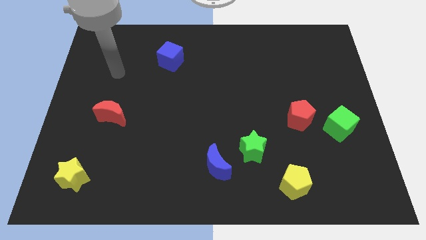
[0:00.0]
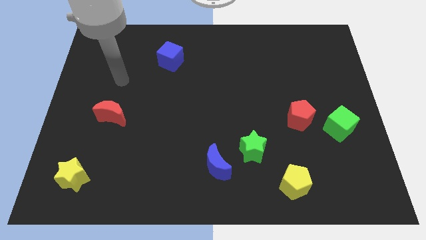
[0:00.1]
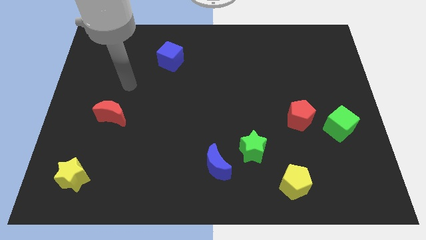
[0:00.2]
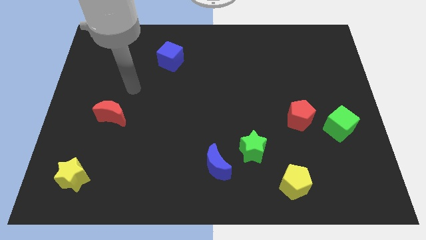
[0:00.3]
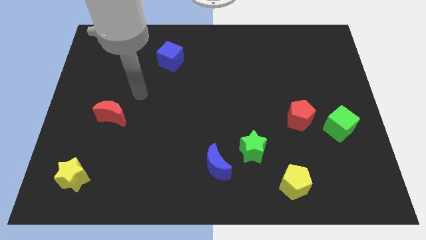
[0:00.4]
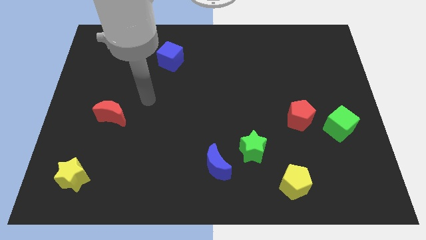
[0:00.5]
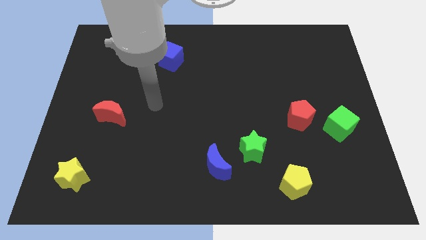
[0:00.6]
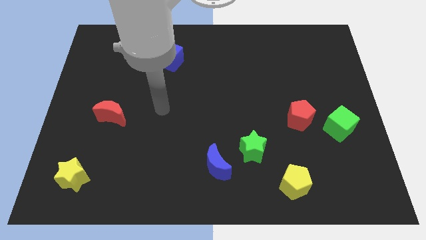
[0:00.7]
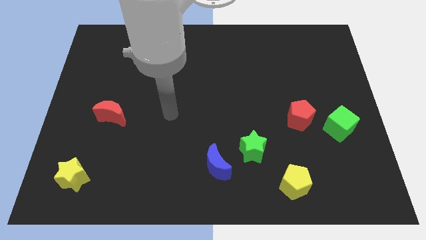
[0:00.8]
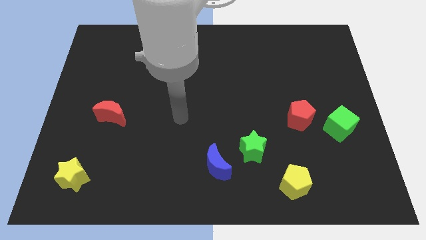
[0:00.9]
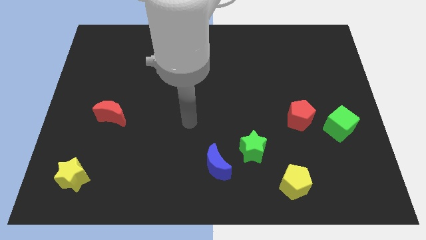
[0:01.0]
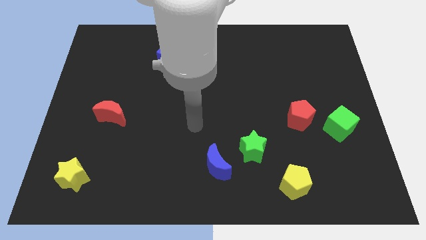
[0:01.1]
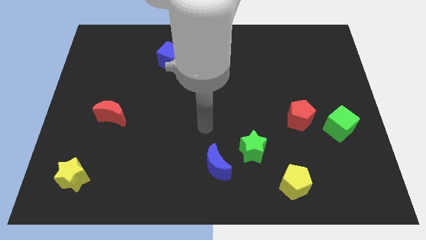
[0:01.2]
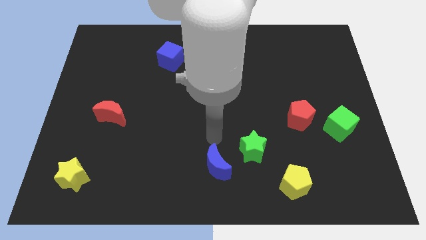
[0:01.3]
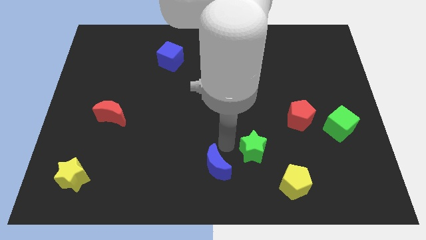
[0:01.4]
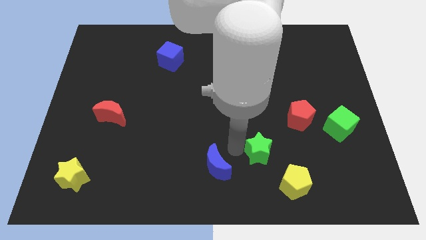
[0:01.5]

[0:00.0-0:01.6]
separate the blue moon from the green star

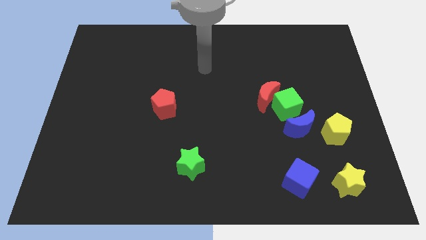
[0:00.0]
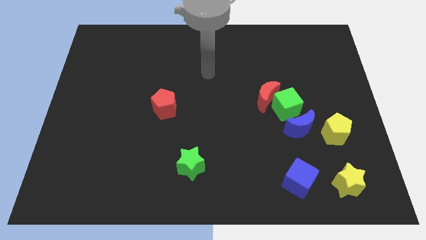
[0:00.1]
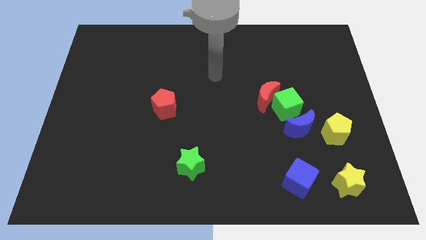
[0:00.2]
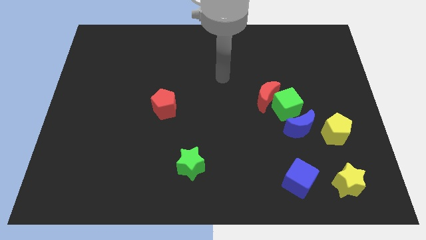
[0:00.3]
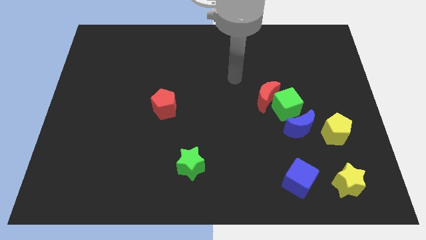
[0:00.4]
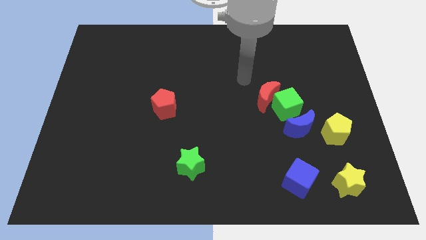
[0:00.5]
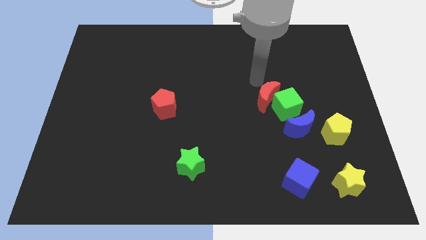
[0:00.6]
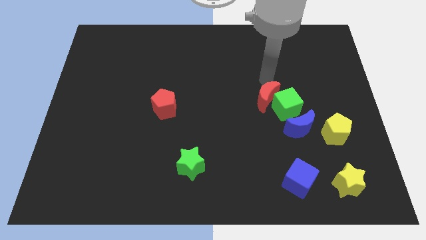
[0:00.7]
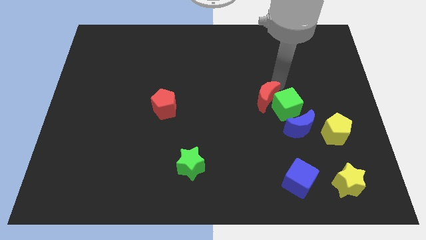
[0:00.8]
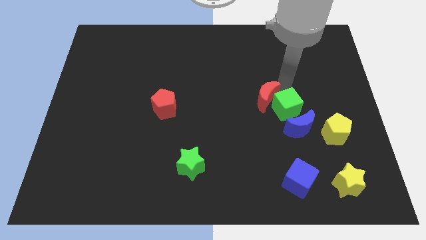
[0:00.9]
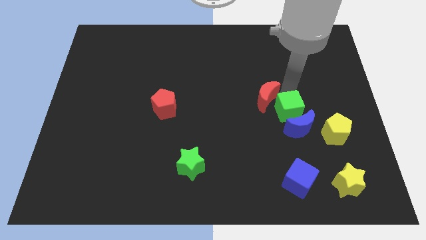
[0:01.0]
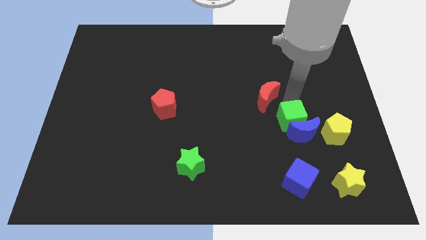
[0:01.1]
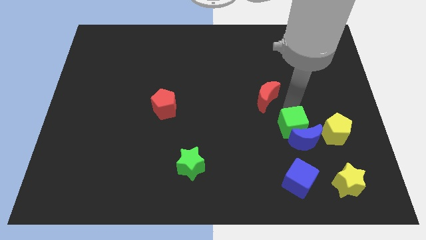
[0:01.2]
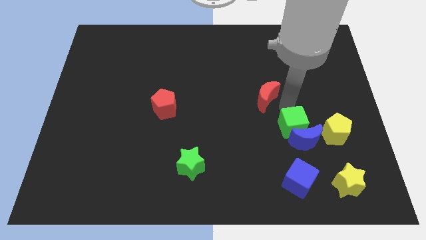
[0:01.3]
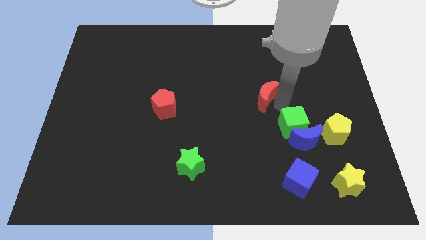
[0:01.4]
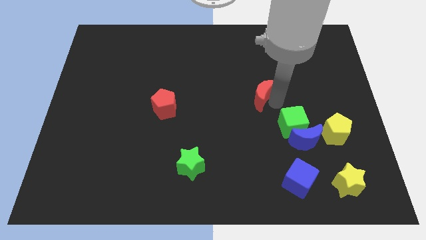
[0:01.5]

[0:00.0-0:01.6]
separate the red moon from the green cube

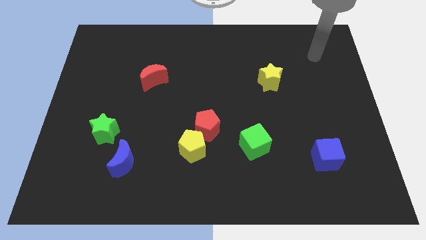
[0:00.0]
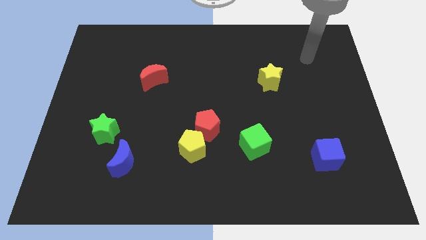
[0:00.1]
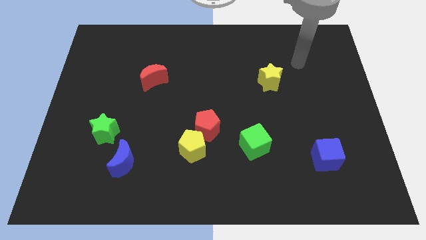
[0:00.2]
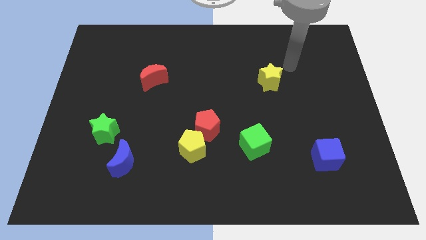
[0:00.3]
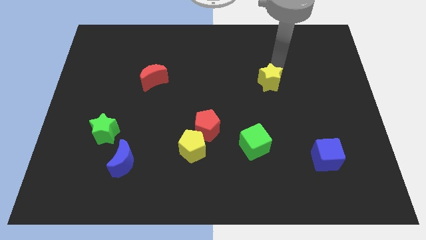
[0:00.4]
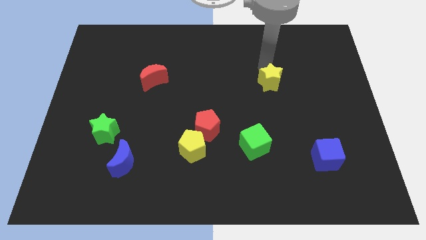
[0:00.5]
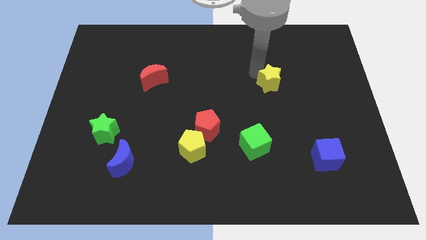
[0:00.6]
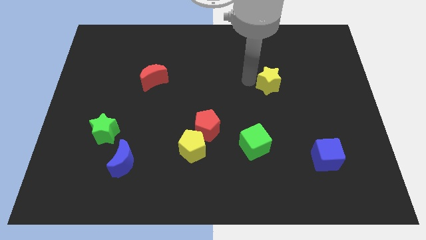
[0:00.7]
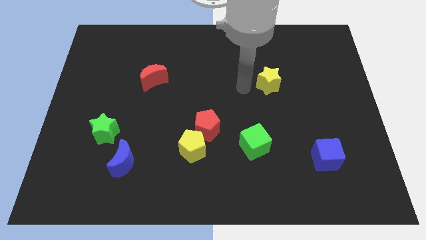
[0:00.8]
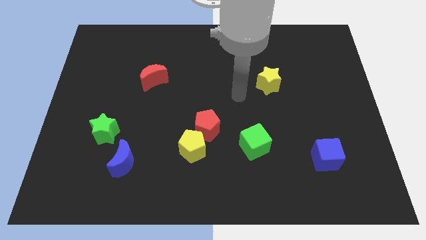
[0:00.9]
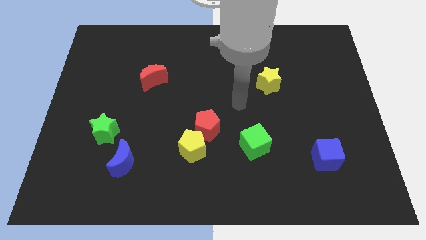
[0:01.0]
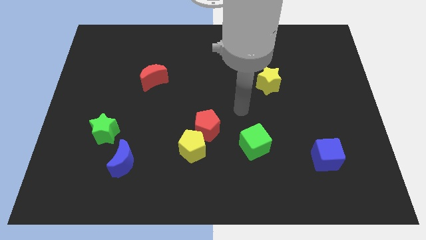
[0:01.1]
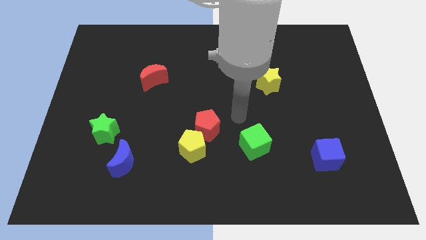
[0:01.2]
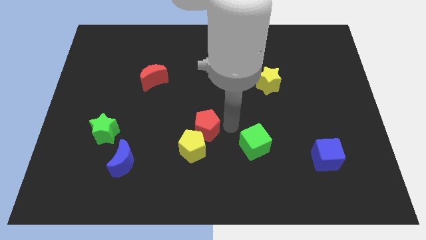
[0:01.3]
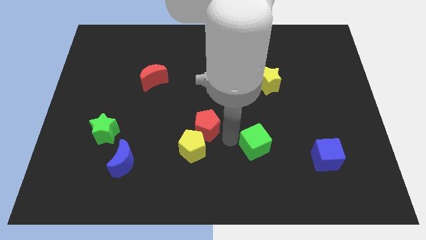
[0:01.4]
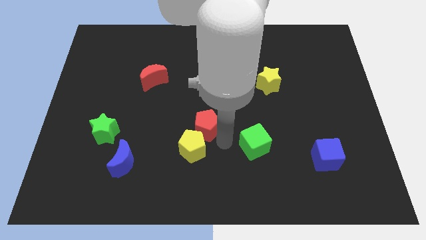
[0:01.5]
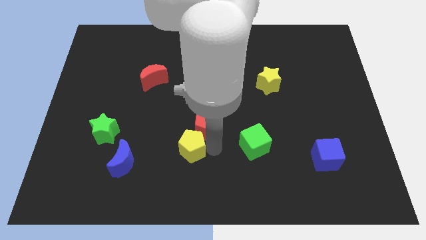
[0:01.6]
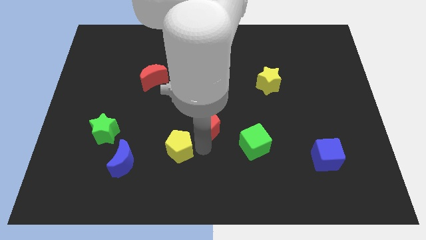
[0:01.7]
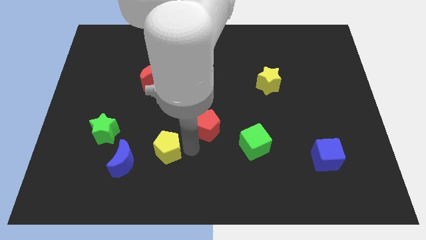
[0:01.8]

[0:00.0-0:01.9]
pull the red pentagon apart from the yellow pentagon

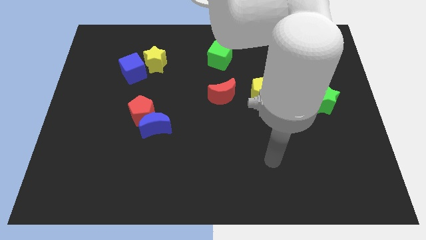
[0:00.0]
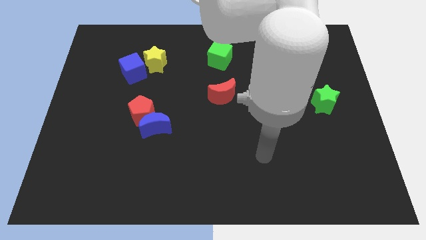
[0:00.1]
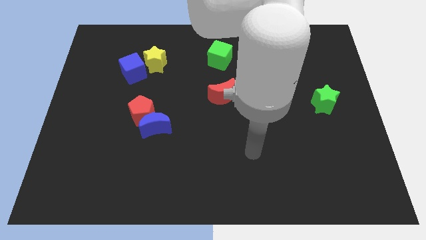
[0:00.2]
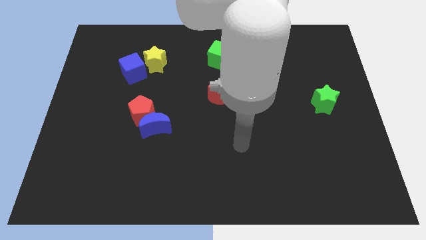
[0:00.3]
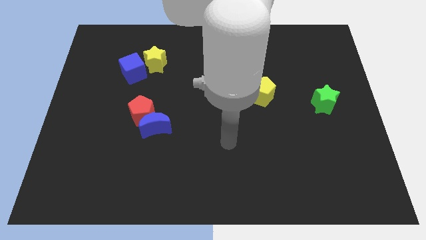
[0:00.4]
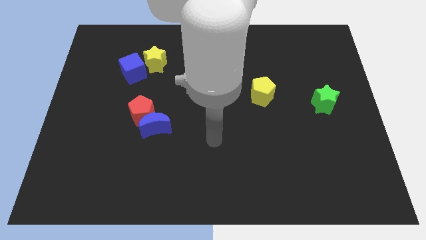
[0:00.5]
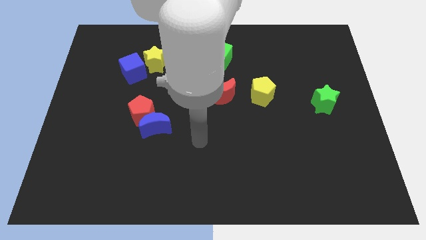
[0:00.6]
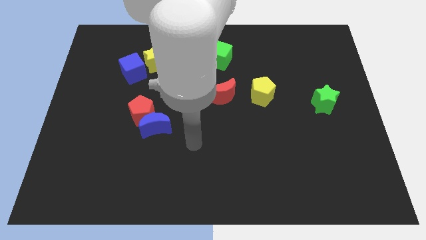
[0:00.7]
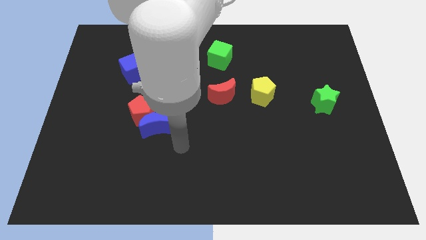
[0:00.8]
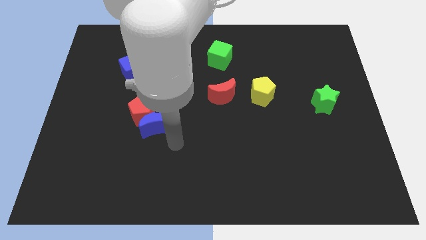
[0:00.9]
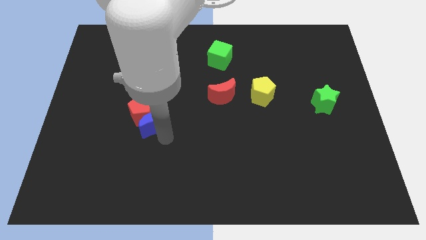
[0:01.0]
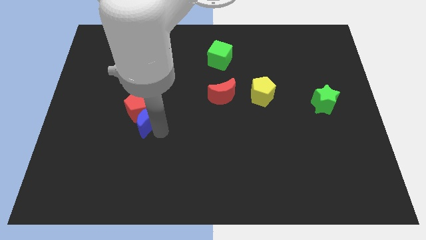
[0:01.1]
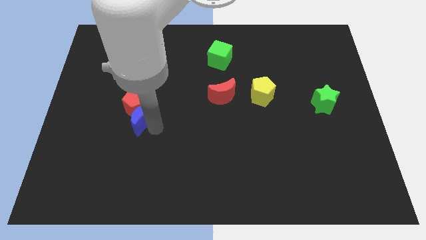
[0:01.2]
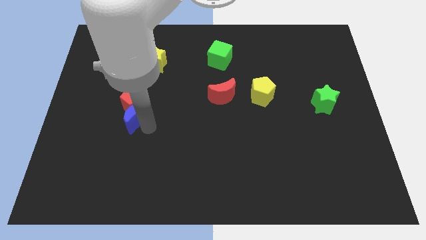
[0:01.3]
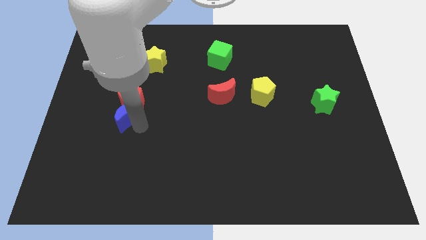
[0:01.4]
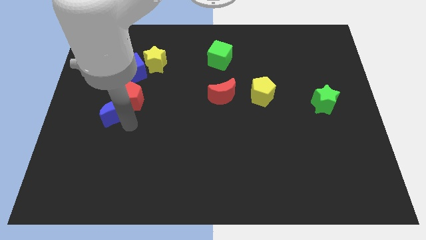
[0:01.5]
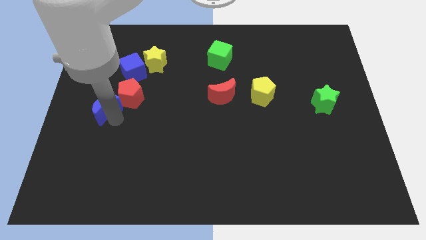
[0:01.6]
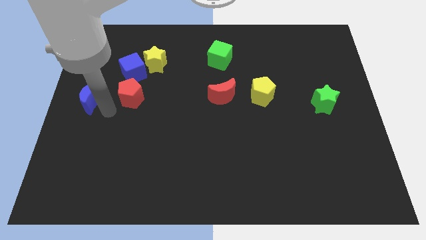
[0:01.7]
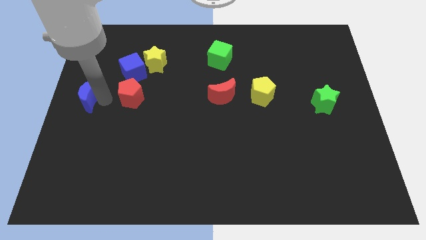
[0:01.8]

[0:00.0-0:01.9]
move the red pentagon away from the blue moon

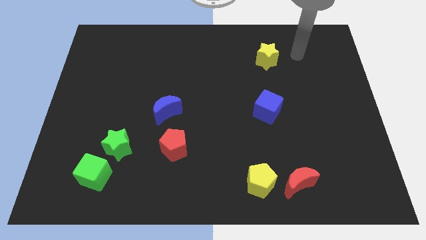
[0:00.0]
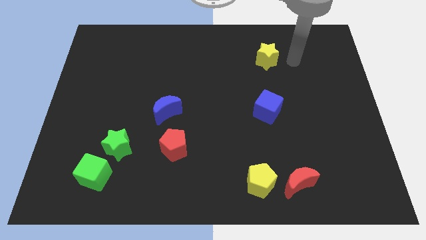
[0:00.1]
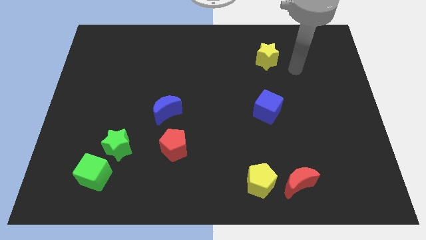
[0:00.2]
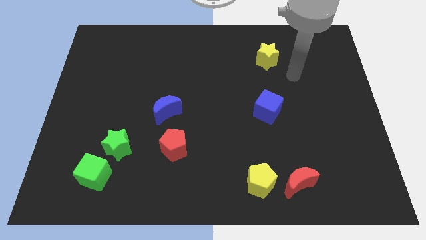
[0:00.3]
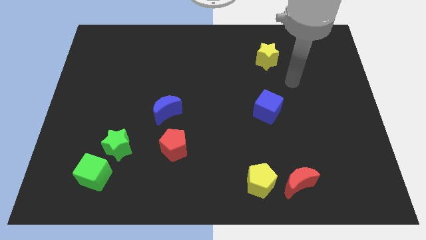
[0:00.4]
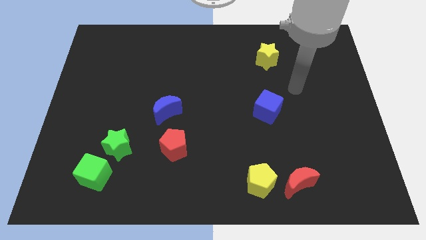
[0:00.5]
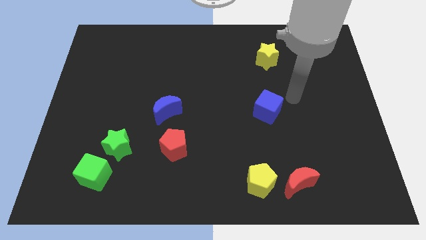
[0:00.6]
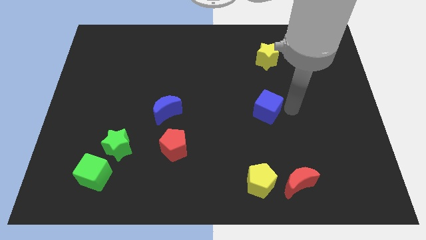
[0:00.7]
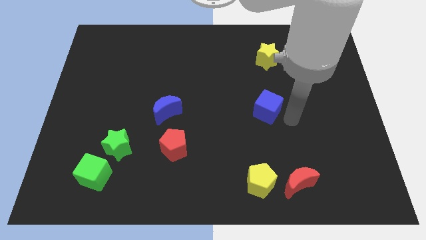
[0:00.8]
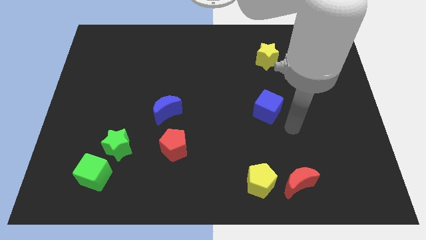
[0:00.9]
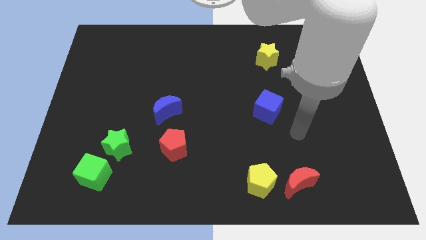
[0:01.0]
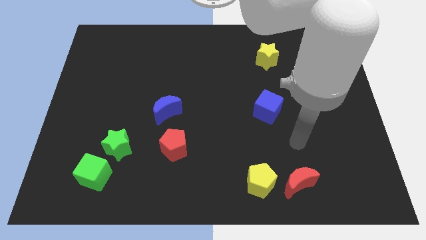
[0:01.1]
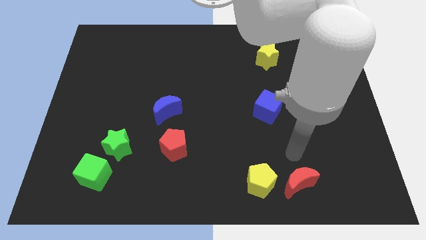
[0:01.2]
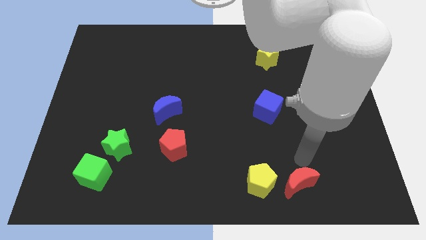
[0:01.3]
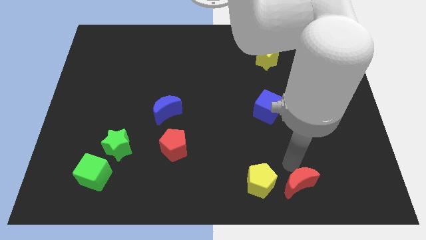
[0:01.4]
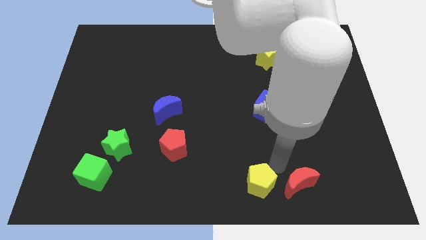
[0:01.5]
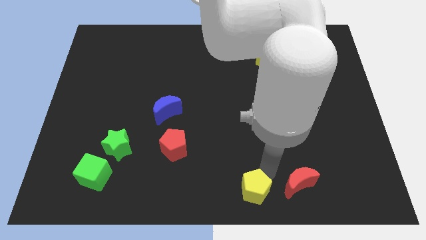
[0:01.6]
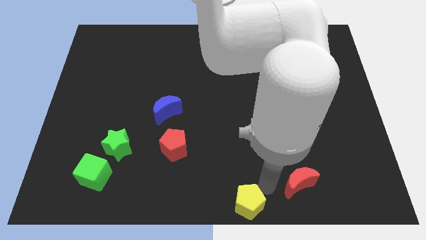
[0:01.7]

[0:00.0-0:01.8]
separate the red moon from the yellow pentagon

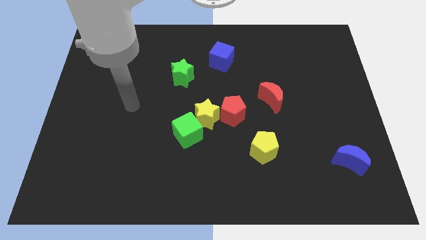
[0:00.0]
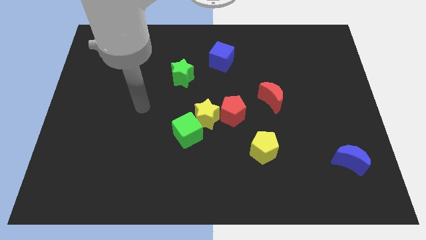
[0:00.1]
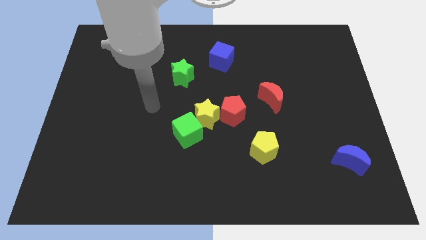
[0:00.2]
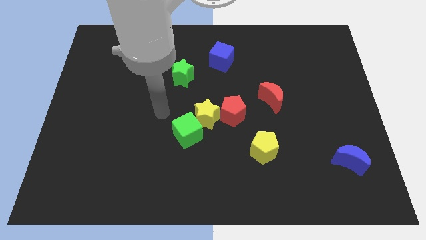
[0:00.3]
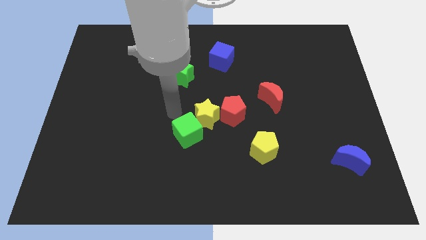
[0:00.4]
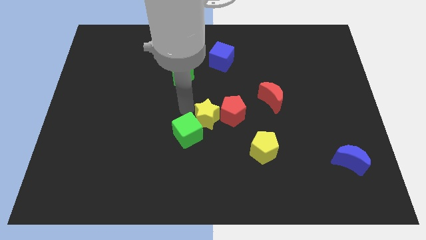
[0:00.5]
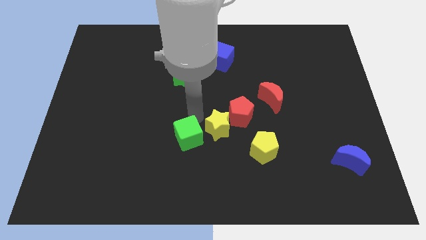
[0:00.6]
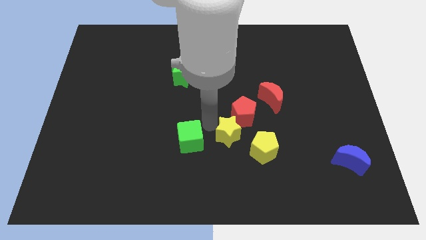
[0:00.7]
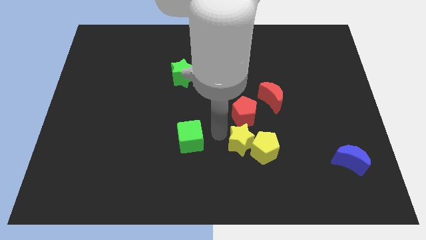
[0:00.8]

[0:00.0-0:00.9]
pull the green cube apart from the yellow star
